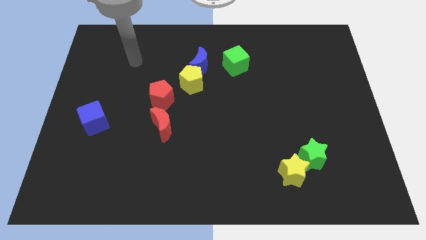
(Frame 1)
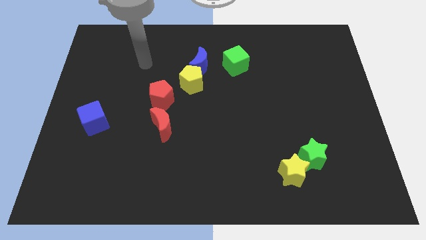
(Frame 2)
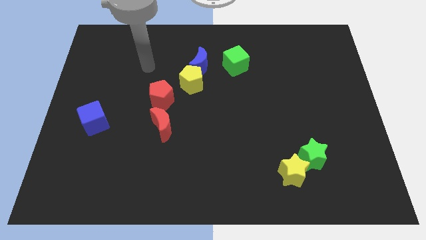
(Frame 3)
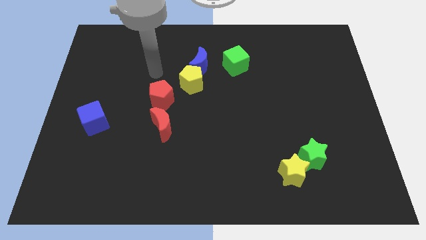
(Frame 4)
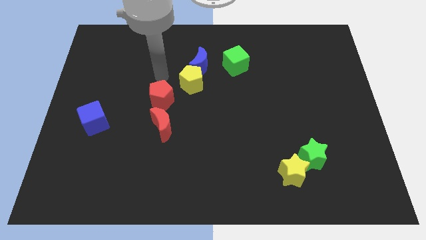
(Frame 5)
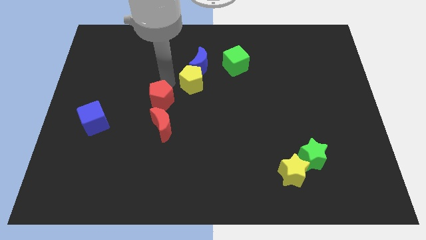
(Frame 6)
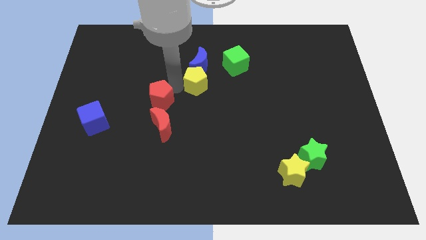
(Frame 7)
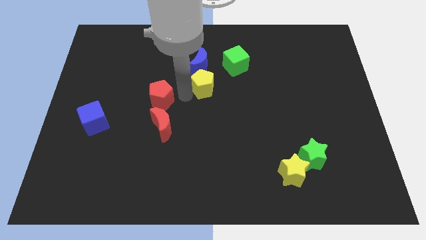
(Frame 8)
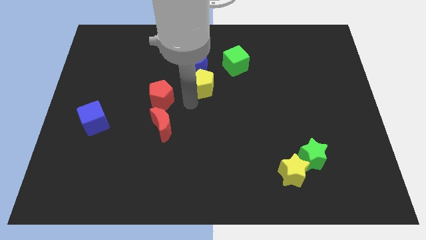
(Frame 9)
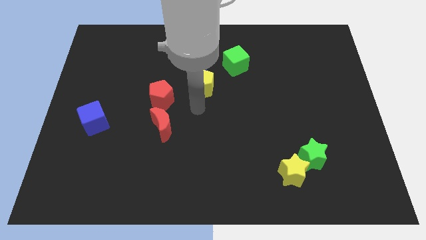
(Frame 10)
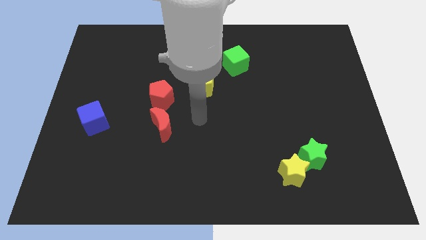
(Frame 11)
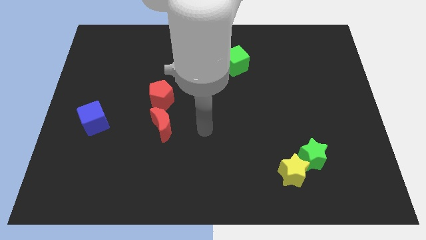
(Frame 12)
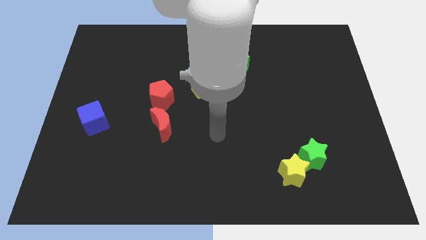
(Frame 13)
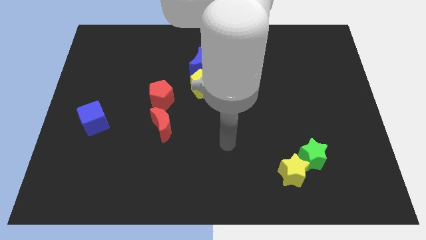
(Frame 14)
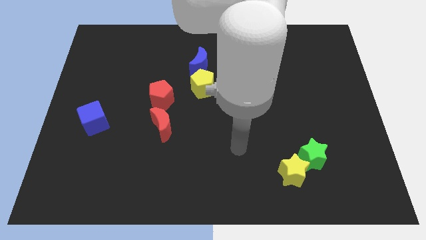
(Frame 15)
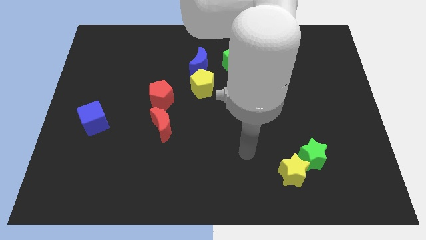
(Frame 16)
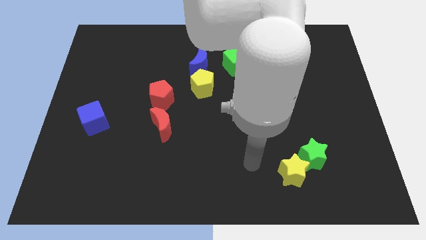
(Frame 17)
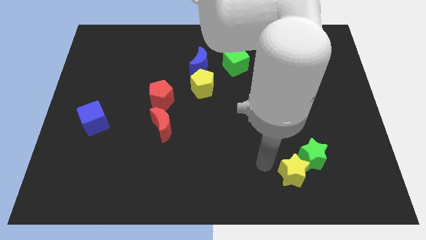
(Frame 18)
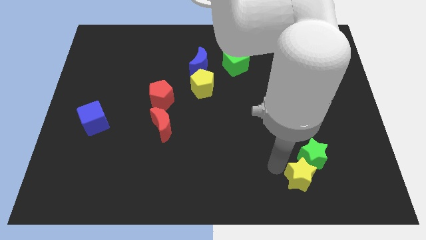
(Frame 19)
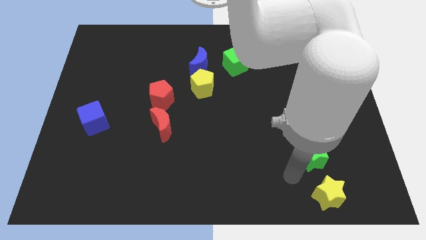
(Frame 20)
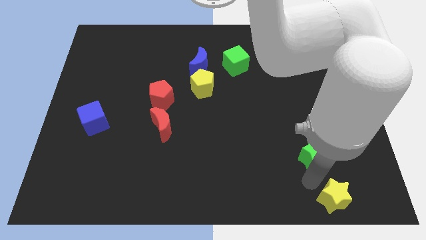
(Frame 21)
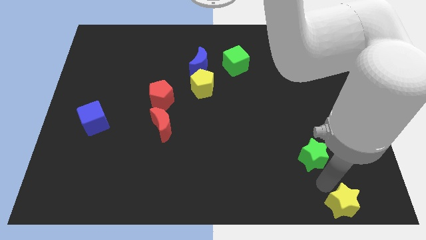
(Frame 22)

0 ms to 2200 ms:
pull the green star apart from the yellow star

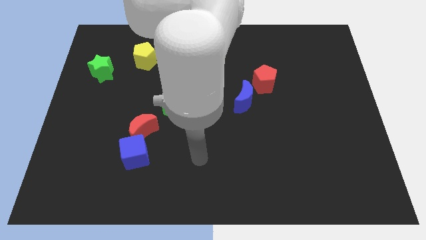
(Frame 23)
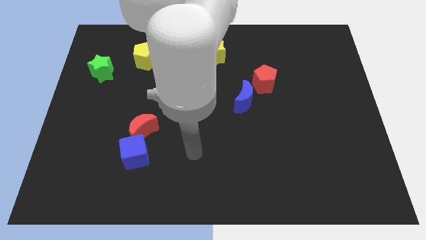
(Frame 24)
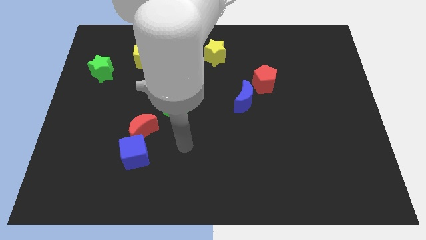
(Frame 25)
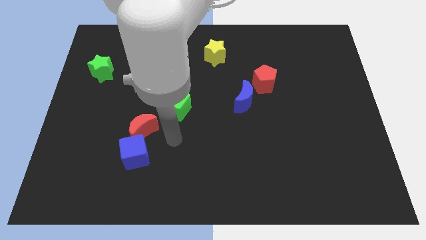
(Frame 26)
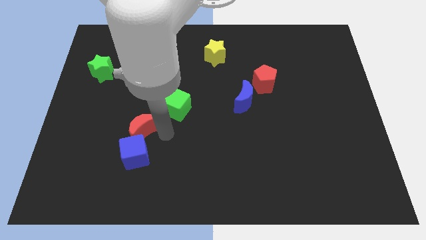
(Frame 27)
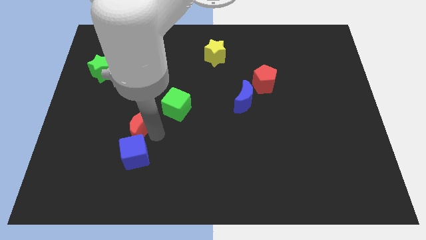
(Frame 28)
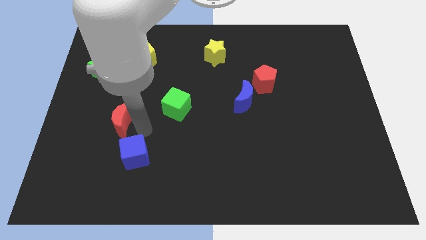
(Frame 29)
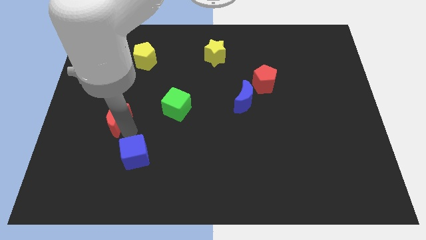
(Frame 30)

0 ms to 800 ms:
separate the blue cube from the red moon

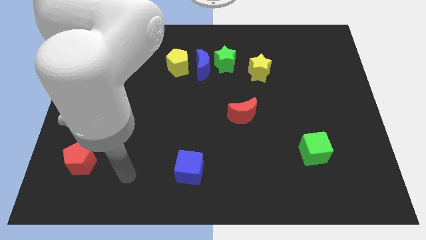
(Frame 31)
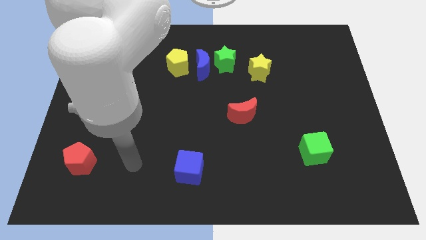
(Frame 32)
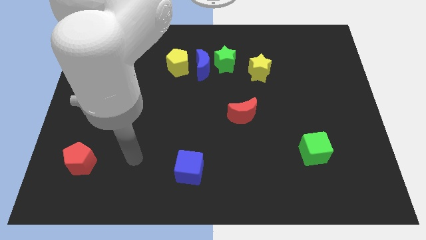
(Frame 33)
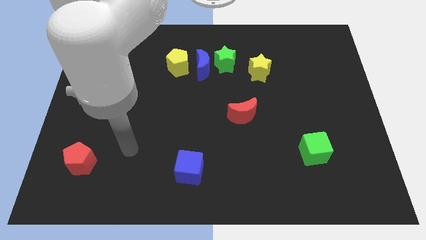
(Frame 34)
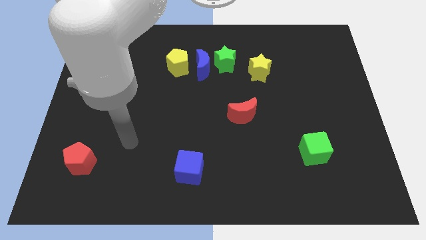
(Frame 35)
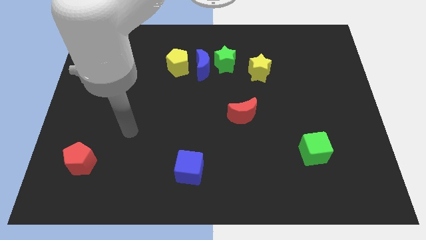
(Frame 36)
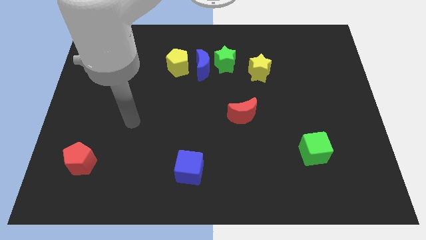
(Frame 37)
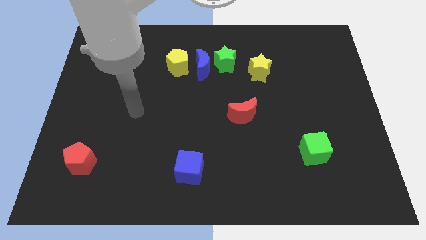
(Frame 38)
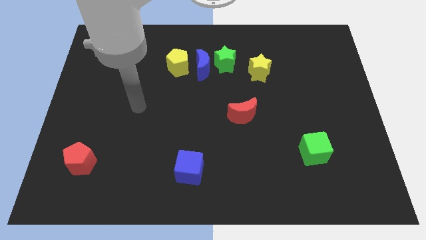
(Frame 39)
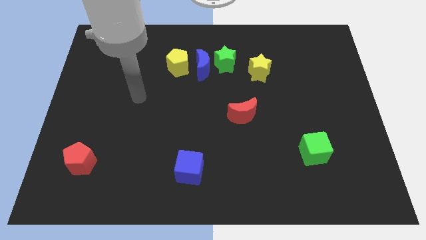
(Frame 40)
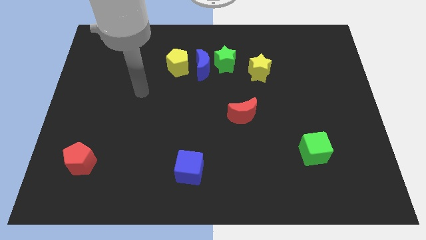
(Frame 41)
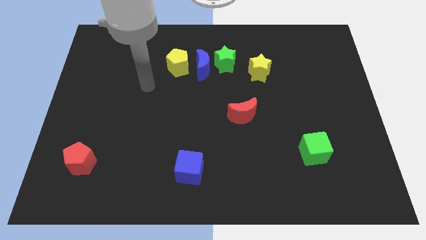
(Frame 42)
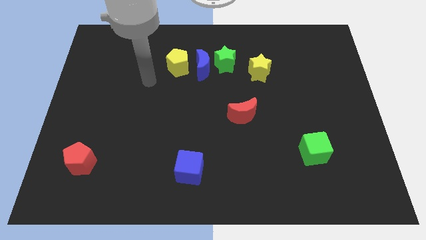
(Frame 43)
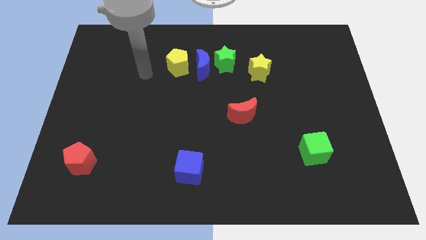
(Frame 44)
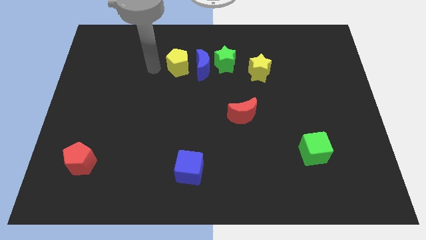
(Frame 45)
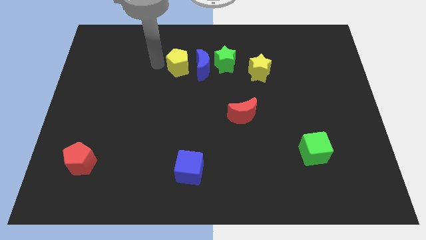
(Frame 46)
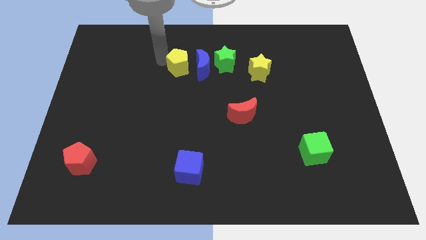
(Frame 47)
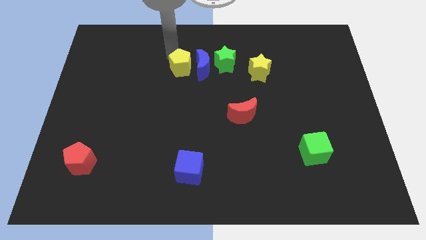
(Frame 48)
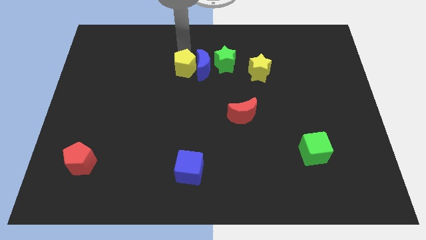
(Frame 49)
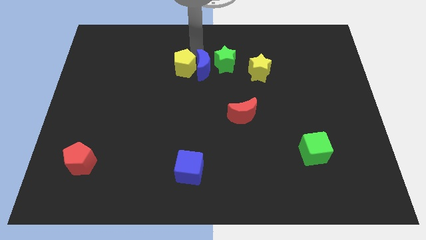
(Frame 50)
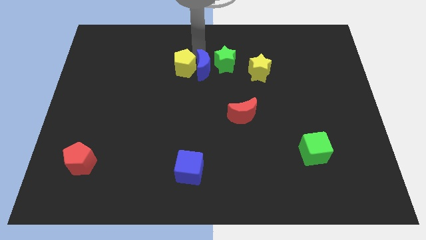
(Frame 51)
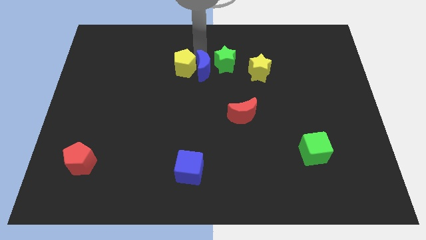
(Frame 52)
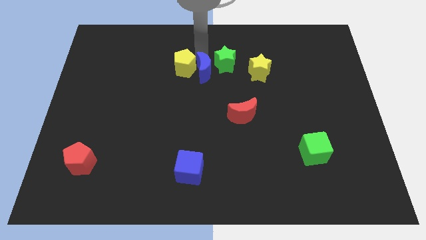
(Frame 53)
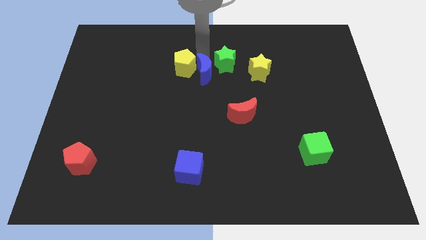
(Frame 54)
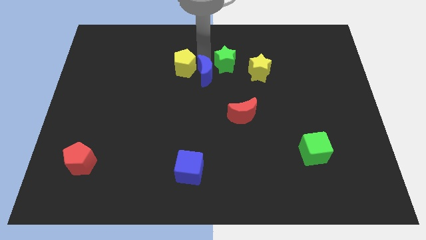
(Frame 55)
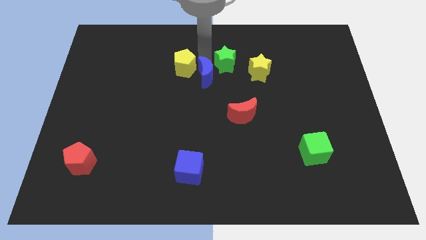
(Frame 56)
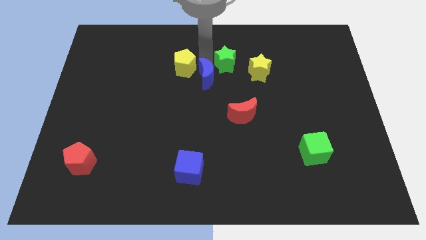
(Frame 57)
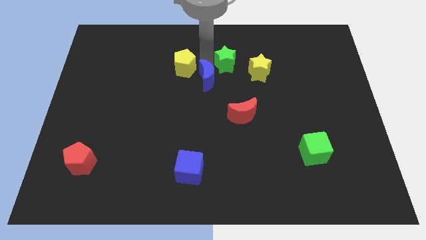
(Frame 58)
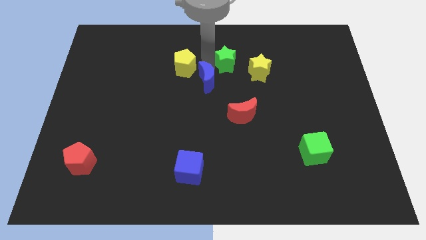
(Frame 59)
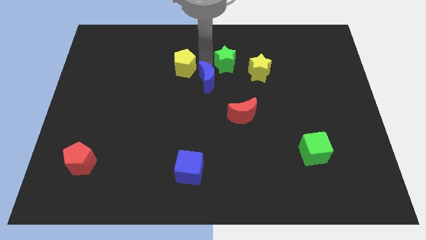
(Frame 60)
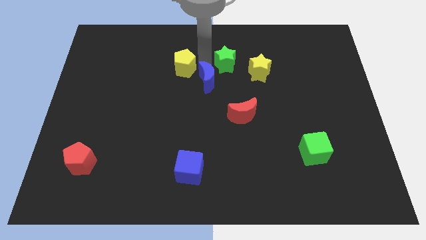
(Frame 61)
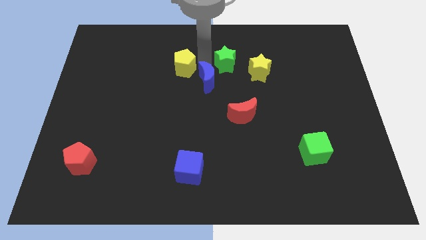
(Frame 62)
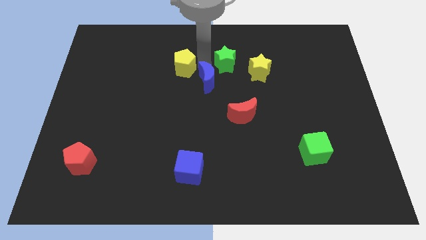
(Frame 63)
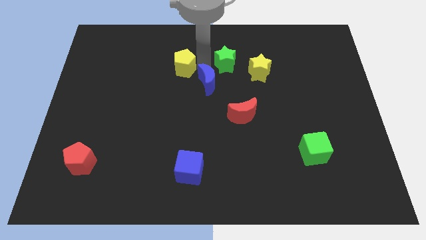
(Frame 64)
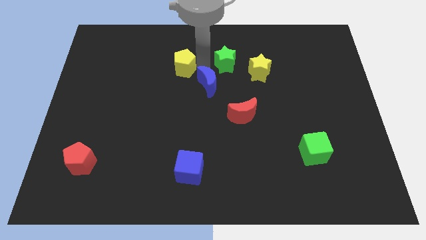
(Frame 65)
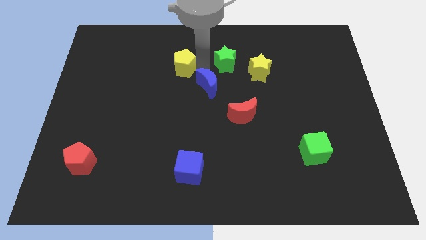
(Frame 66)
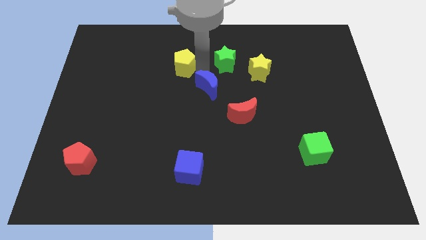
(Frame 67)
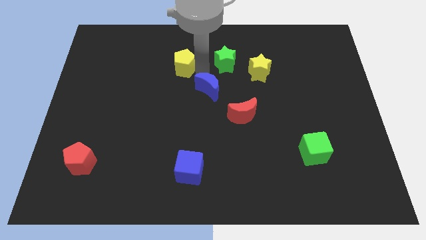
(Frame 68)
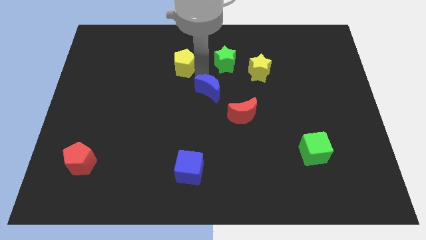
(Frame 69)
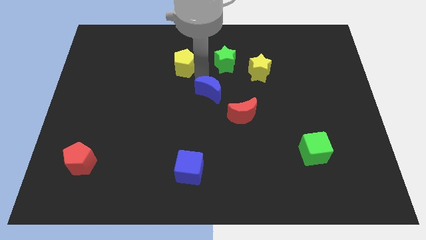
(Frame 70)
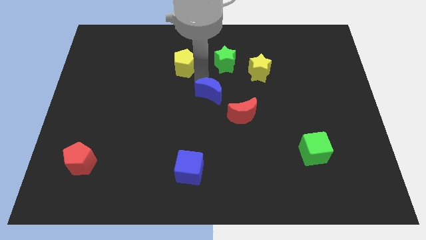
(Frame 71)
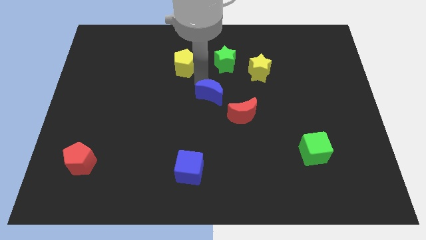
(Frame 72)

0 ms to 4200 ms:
separate the blue moon from the green star and yellow pentagon

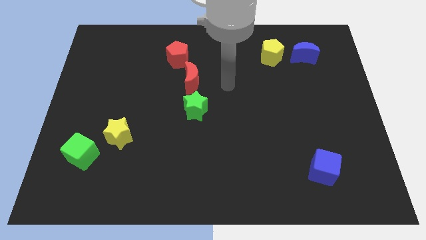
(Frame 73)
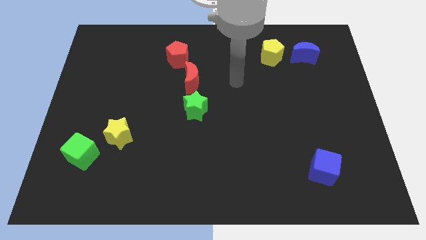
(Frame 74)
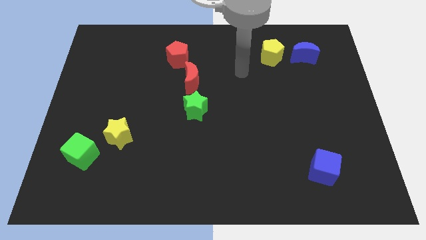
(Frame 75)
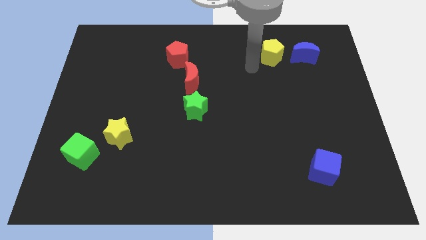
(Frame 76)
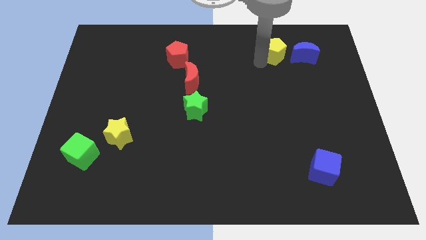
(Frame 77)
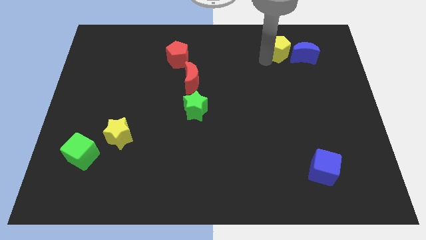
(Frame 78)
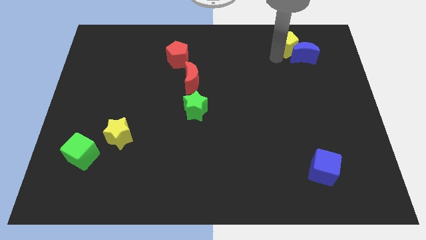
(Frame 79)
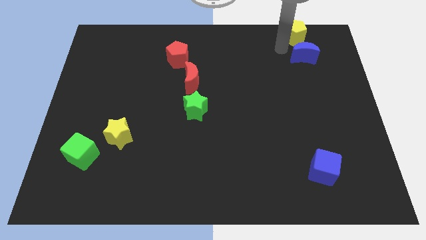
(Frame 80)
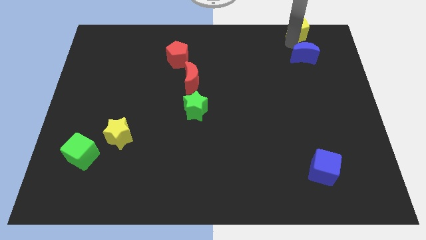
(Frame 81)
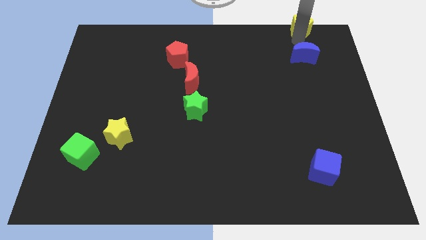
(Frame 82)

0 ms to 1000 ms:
separate the blue moon from the yellow pentagon

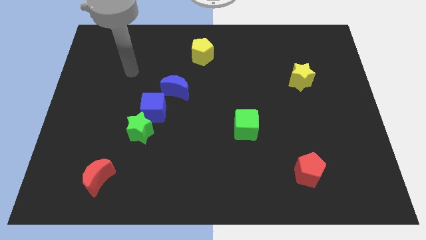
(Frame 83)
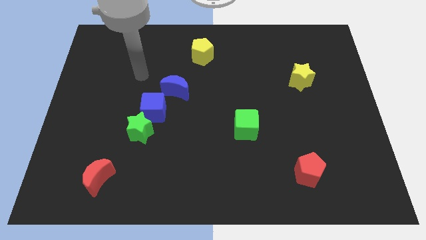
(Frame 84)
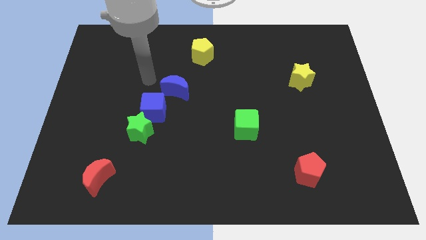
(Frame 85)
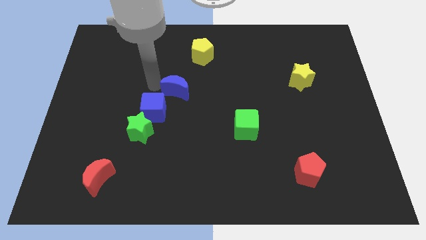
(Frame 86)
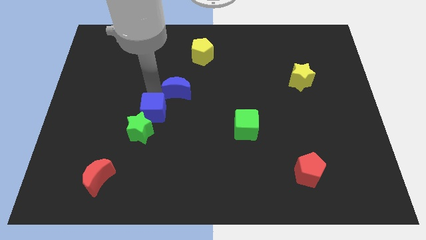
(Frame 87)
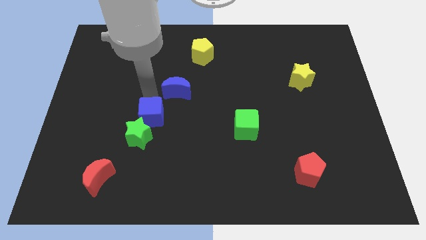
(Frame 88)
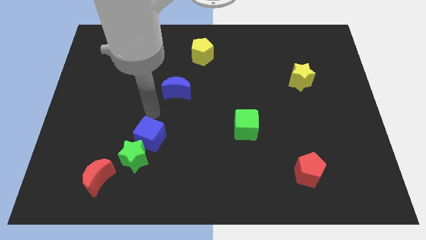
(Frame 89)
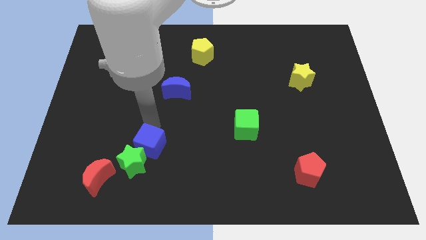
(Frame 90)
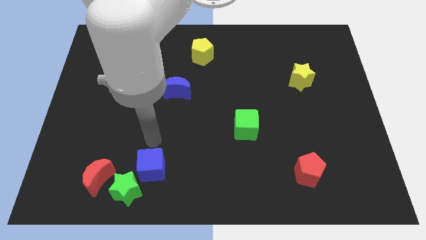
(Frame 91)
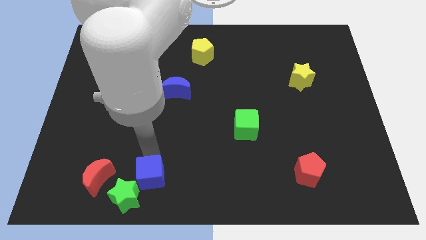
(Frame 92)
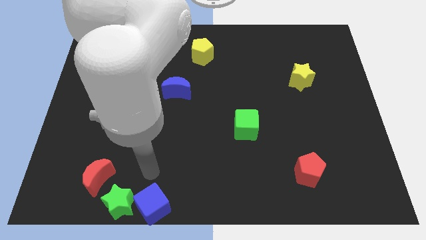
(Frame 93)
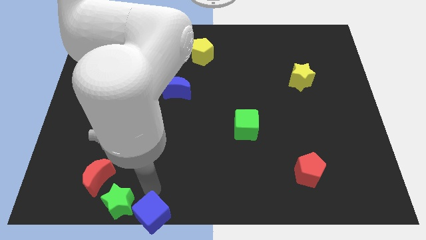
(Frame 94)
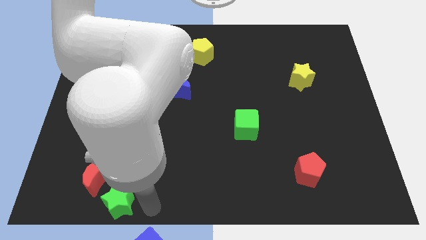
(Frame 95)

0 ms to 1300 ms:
pull the green star apart from the blue cube
